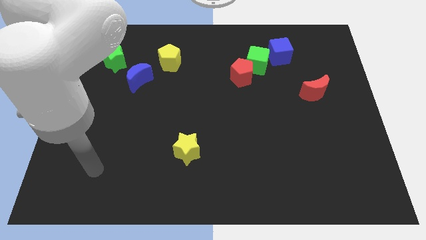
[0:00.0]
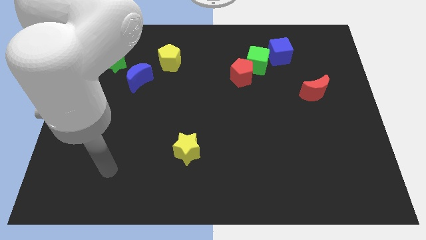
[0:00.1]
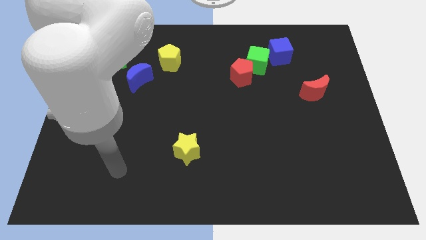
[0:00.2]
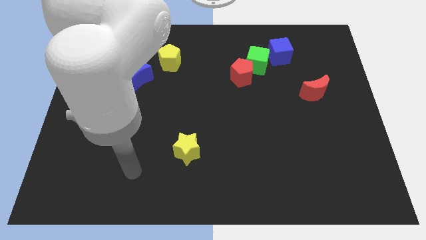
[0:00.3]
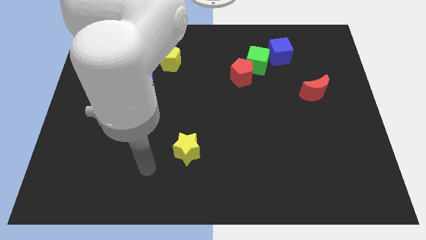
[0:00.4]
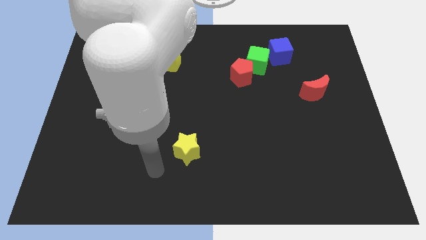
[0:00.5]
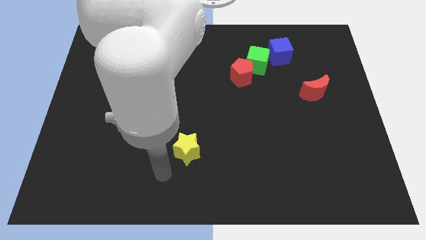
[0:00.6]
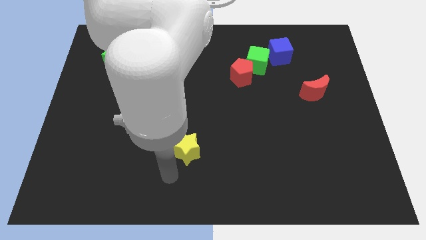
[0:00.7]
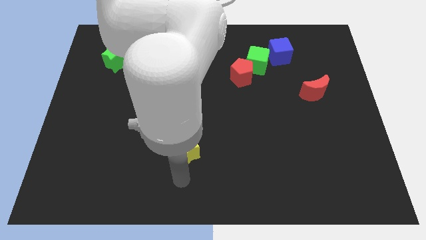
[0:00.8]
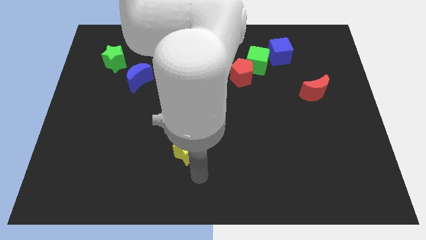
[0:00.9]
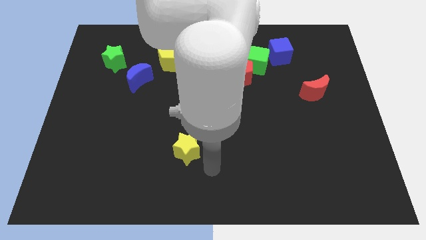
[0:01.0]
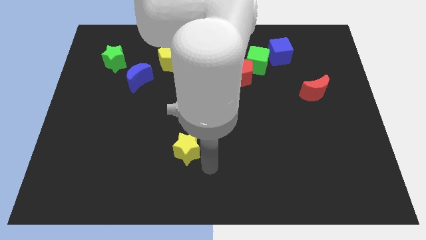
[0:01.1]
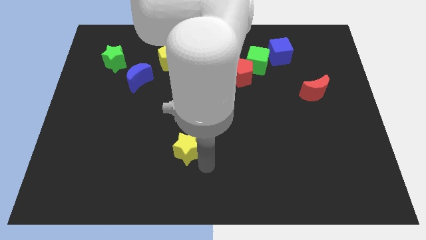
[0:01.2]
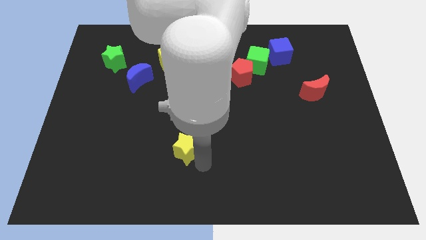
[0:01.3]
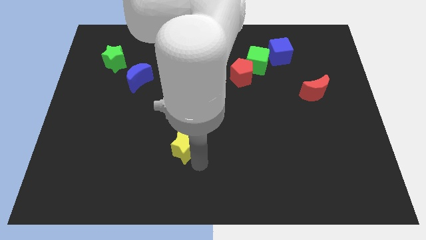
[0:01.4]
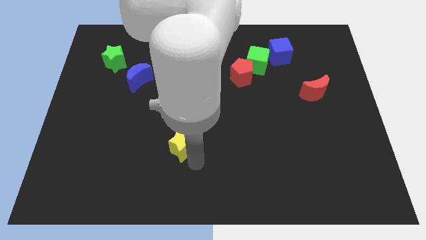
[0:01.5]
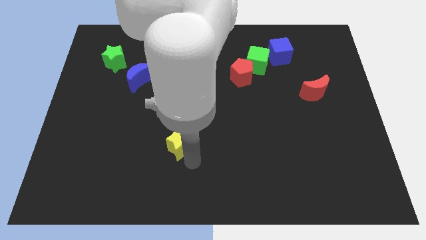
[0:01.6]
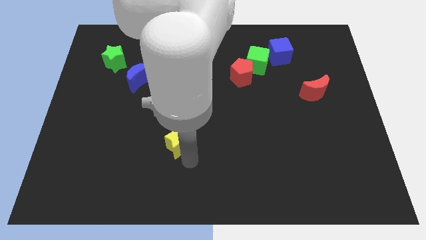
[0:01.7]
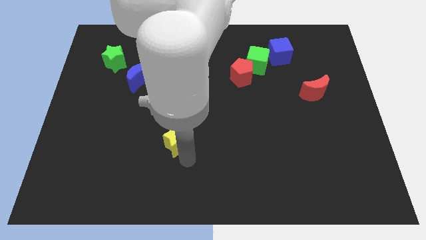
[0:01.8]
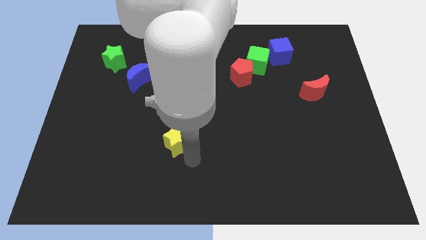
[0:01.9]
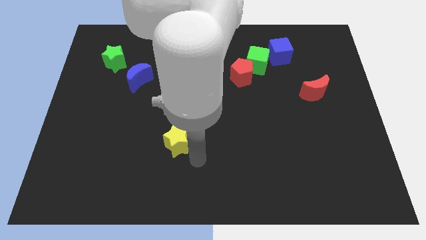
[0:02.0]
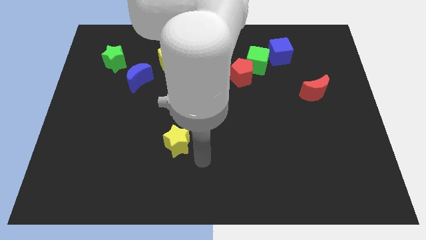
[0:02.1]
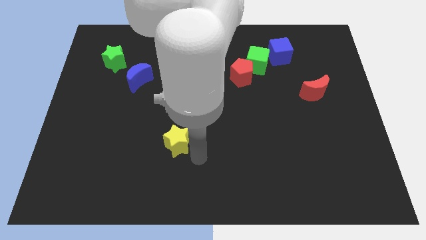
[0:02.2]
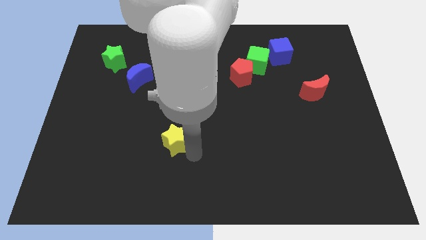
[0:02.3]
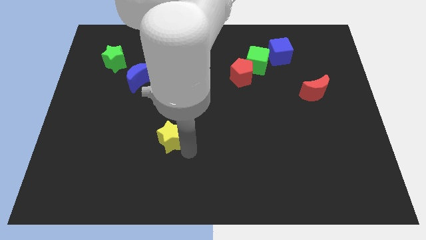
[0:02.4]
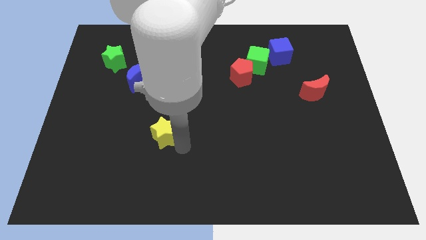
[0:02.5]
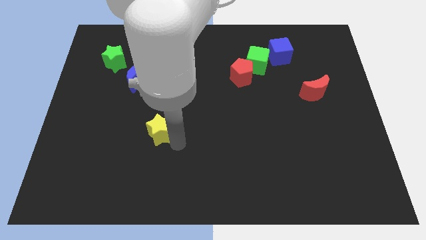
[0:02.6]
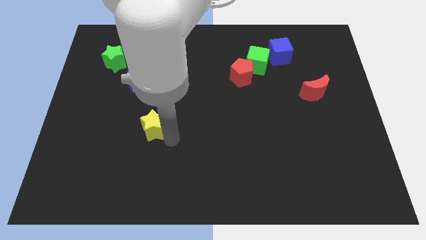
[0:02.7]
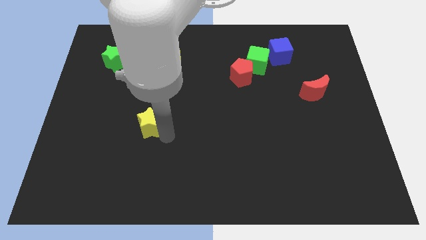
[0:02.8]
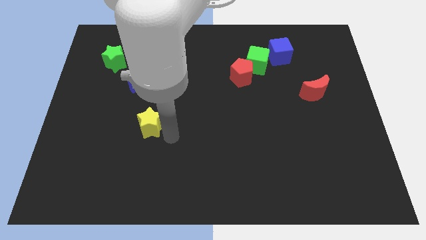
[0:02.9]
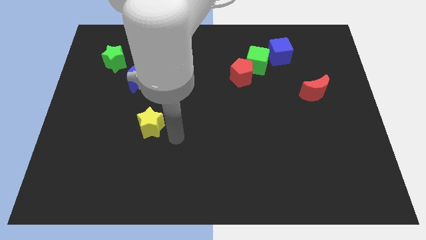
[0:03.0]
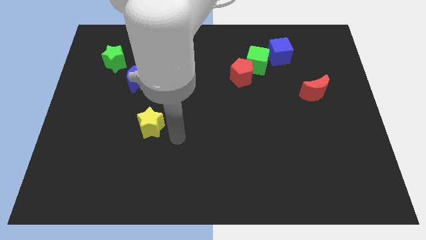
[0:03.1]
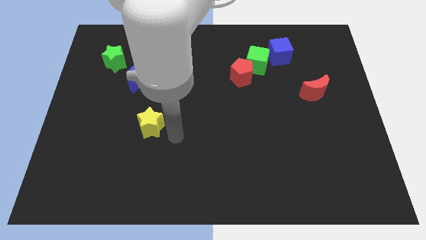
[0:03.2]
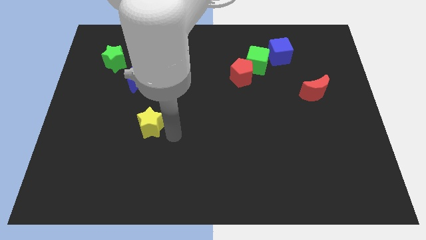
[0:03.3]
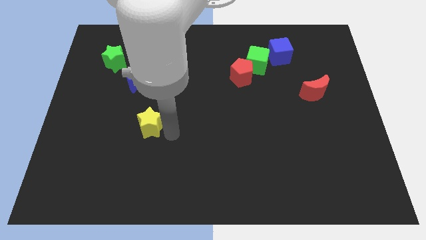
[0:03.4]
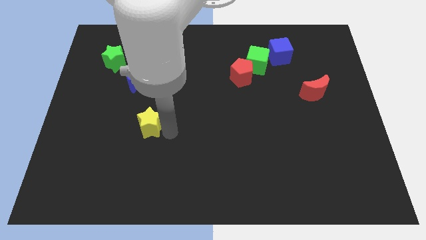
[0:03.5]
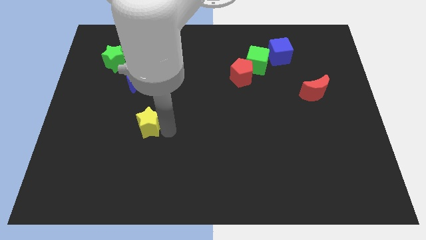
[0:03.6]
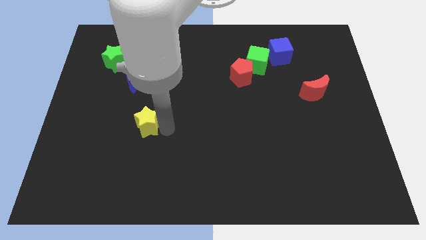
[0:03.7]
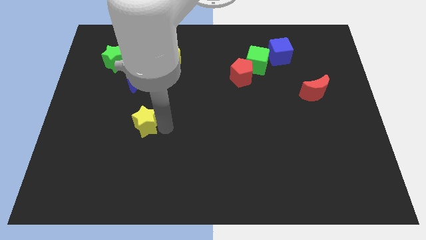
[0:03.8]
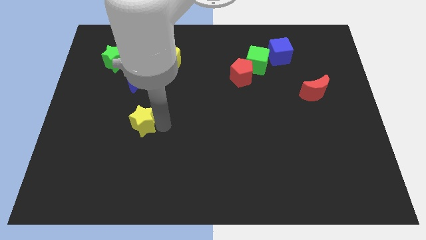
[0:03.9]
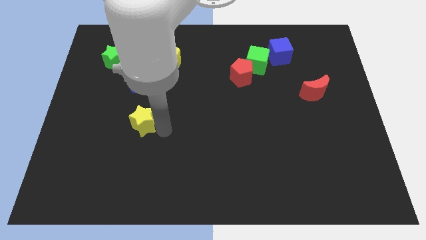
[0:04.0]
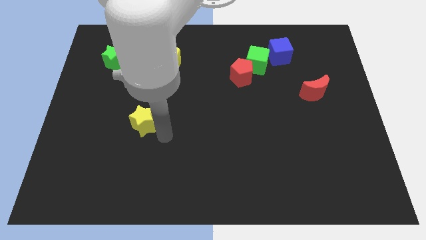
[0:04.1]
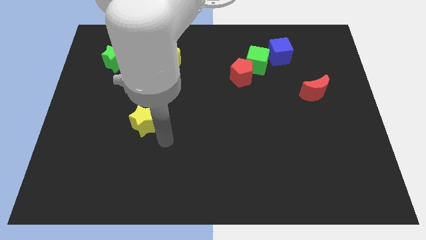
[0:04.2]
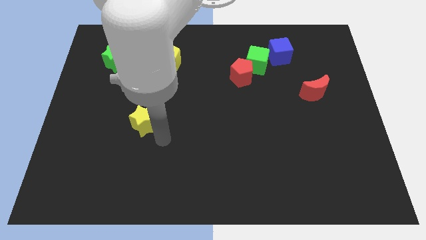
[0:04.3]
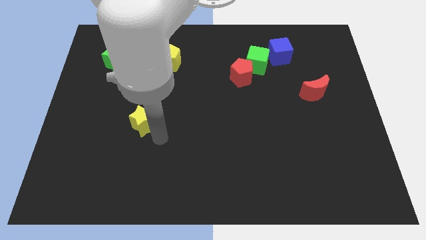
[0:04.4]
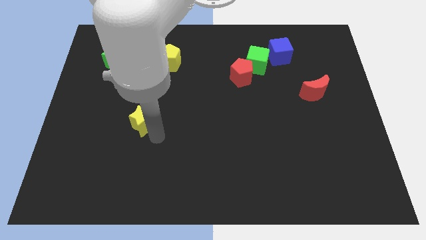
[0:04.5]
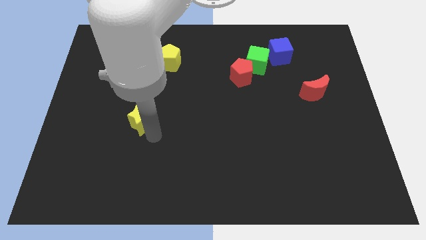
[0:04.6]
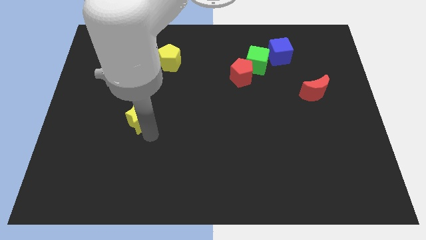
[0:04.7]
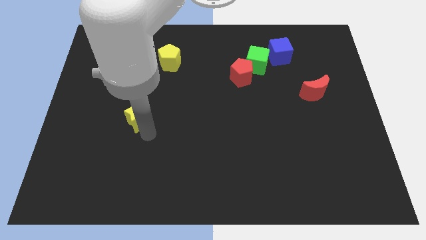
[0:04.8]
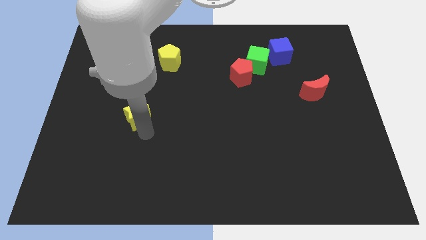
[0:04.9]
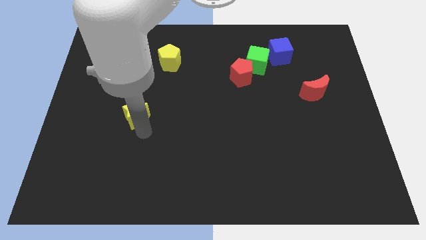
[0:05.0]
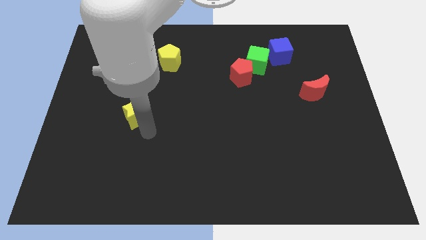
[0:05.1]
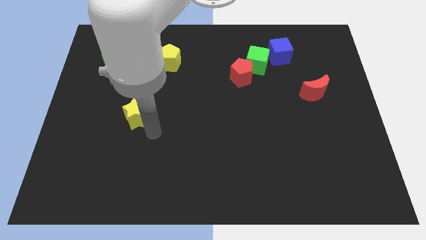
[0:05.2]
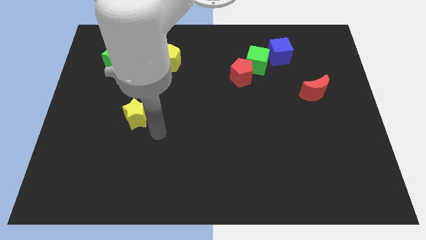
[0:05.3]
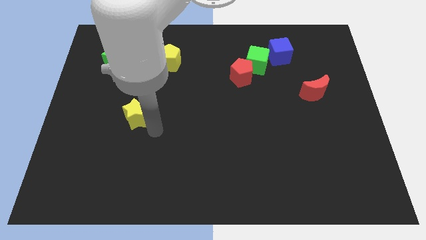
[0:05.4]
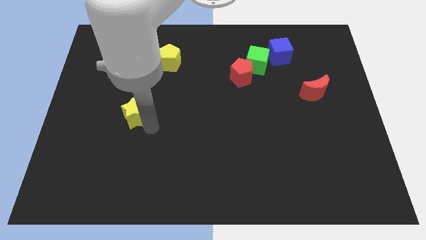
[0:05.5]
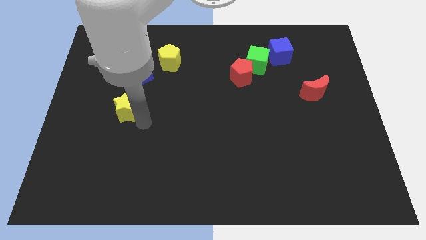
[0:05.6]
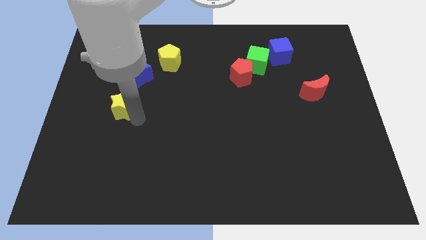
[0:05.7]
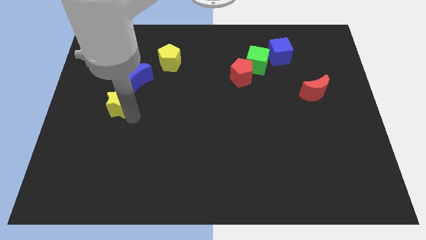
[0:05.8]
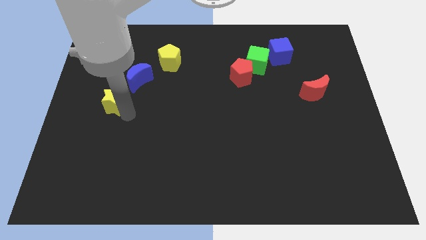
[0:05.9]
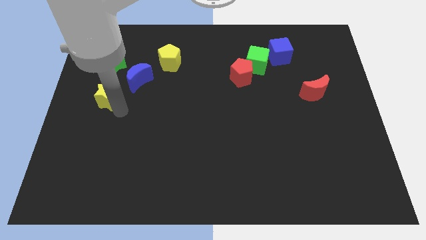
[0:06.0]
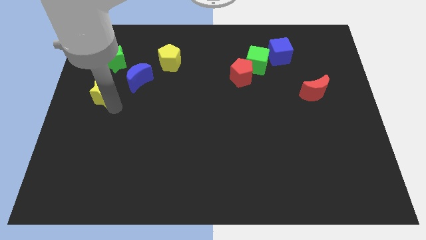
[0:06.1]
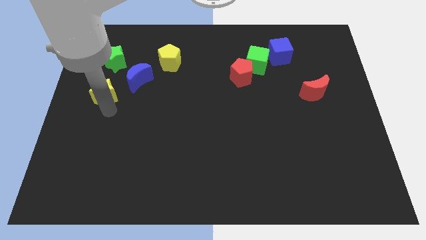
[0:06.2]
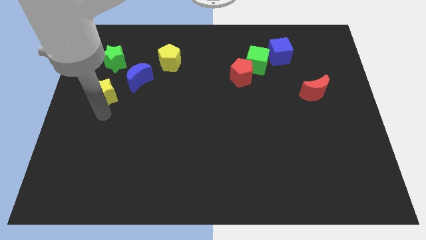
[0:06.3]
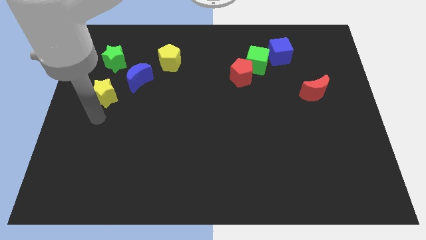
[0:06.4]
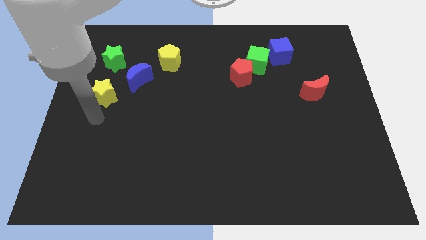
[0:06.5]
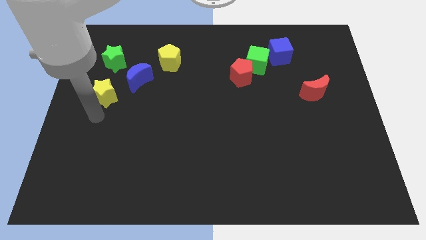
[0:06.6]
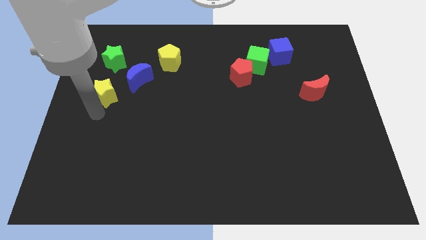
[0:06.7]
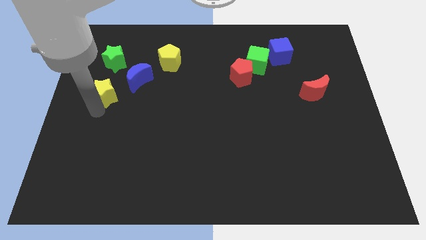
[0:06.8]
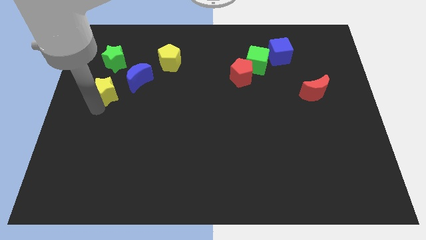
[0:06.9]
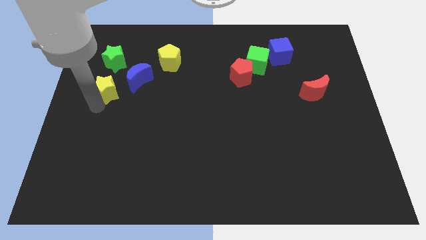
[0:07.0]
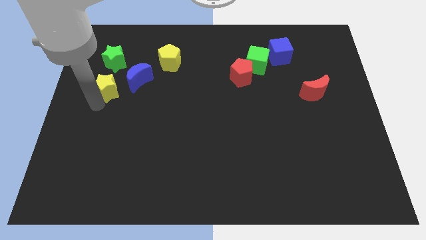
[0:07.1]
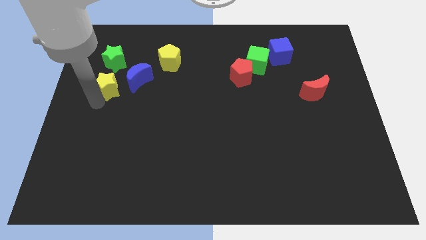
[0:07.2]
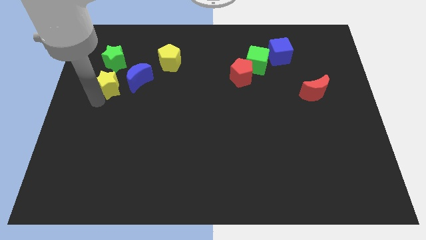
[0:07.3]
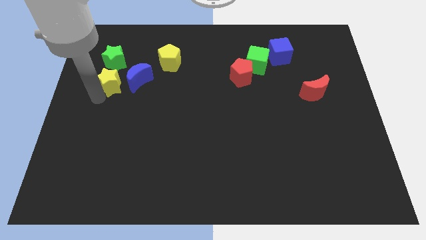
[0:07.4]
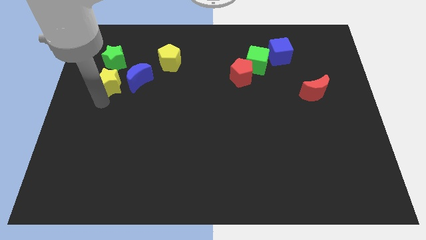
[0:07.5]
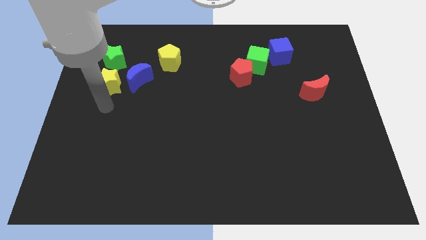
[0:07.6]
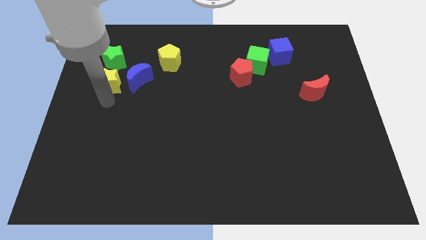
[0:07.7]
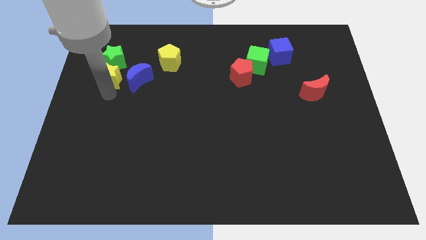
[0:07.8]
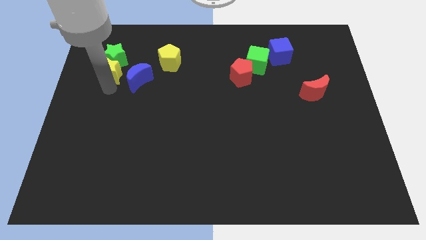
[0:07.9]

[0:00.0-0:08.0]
move the yellow star next to the green star
